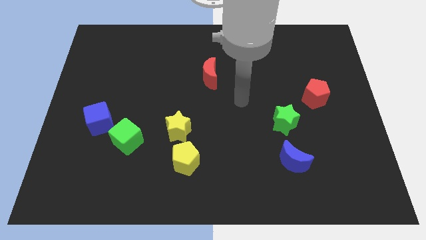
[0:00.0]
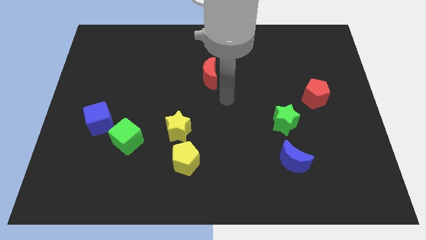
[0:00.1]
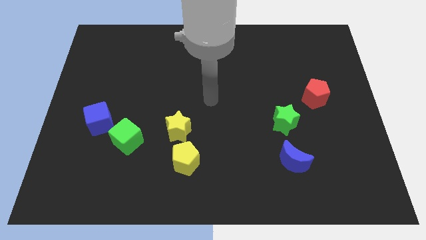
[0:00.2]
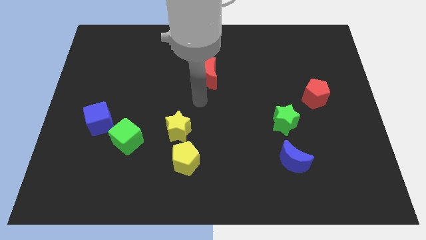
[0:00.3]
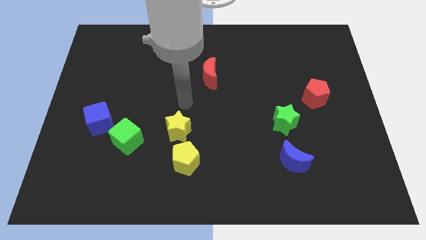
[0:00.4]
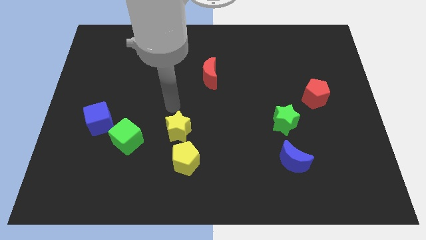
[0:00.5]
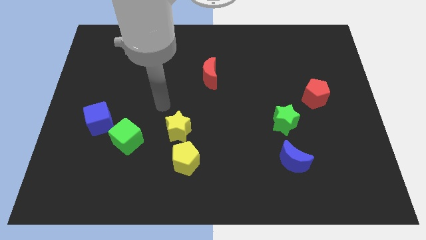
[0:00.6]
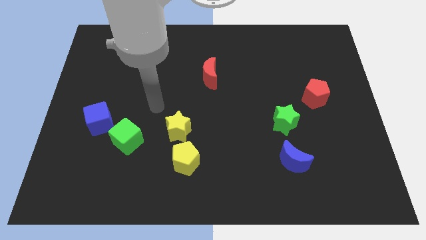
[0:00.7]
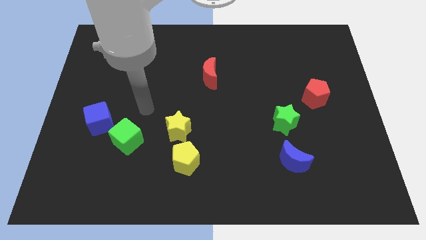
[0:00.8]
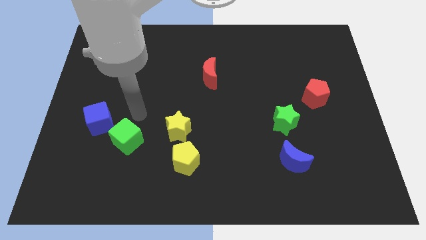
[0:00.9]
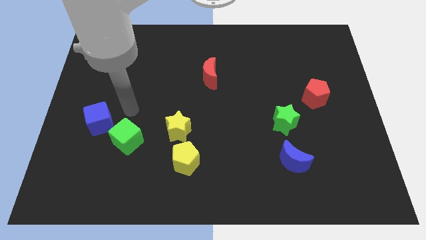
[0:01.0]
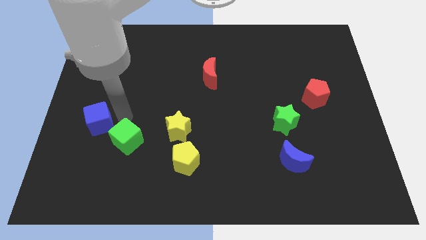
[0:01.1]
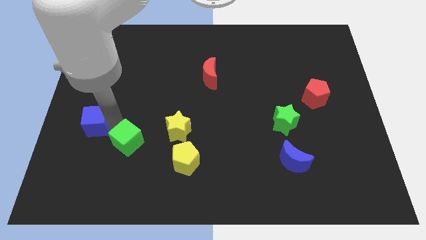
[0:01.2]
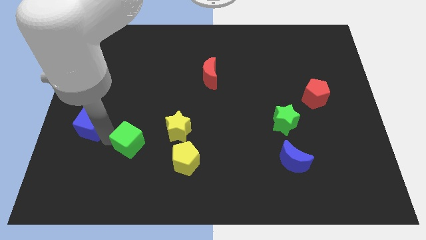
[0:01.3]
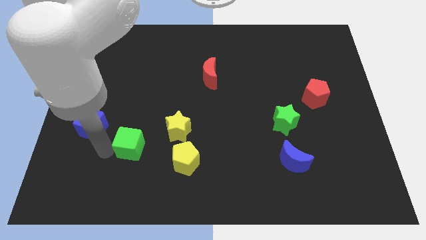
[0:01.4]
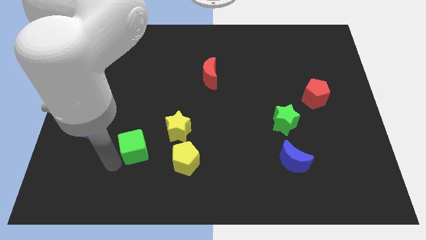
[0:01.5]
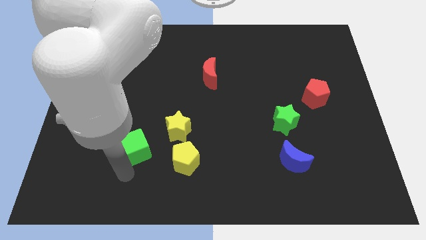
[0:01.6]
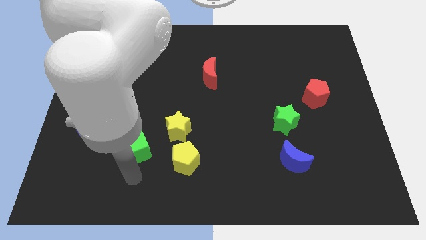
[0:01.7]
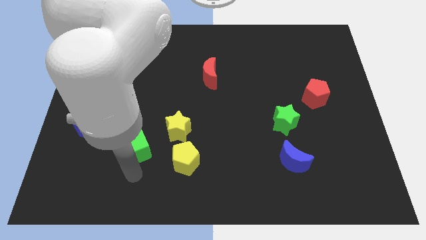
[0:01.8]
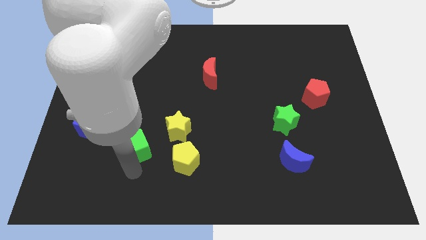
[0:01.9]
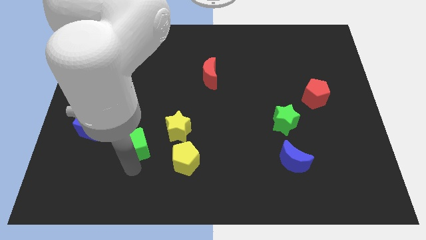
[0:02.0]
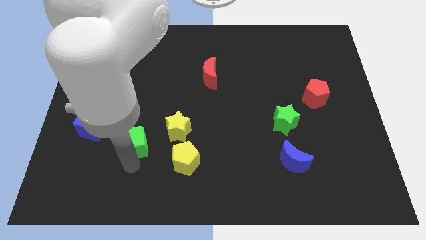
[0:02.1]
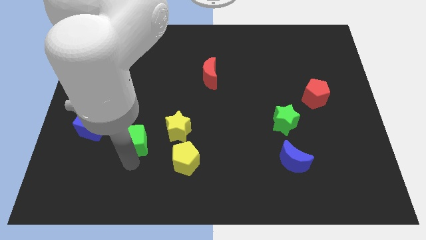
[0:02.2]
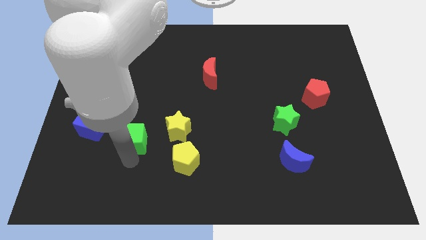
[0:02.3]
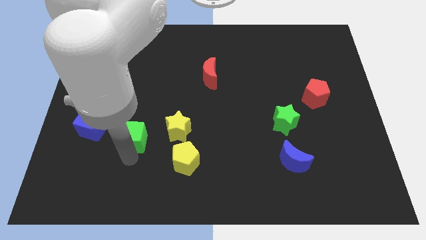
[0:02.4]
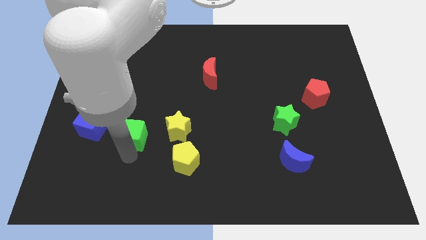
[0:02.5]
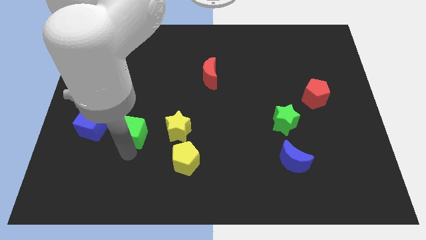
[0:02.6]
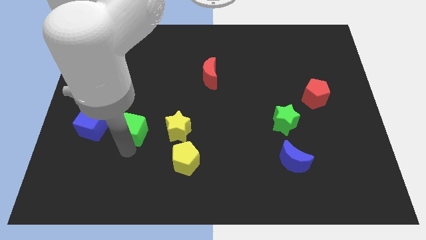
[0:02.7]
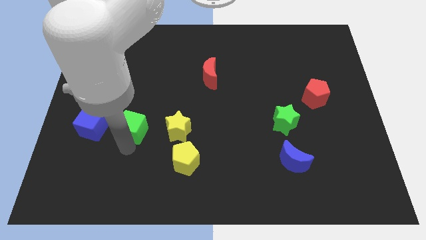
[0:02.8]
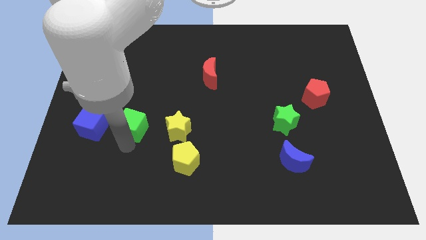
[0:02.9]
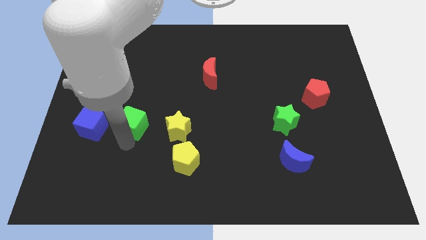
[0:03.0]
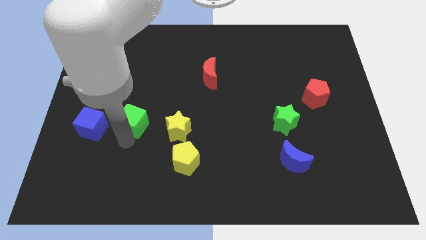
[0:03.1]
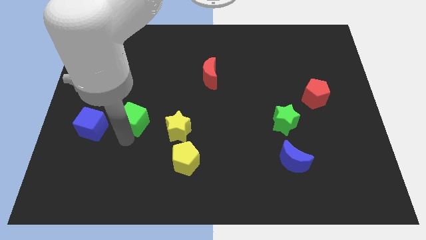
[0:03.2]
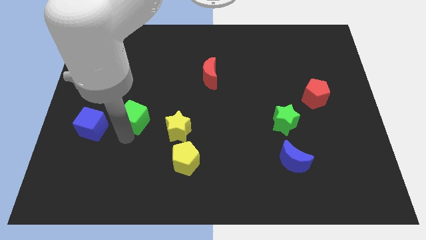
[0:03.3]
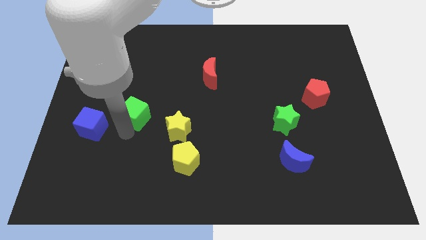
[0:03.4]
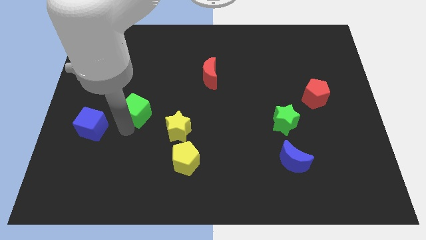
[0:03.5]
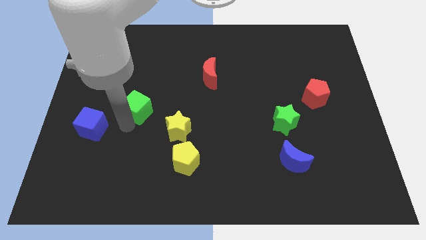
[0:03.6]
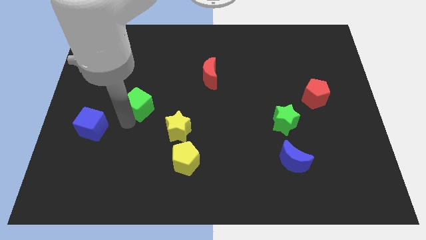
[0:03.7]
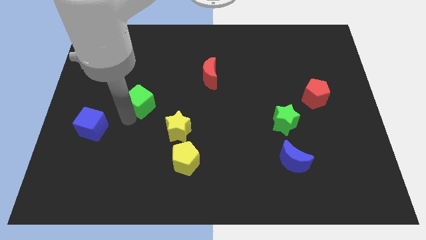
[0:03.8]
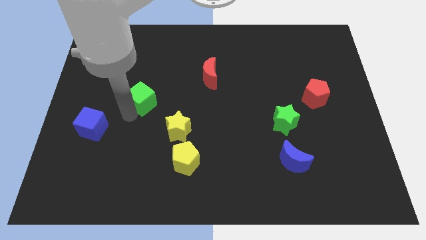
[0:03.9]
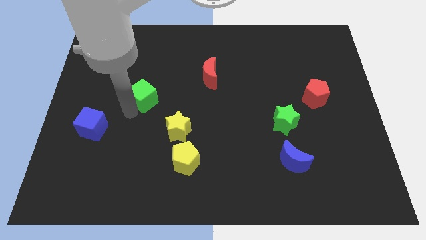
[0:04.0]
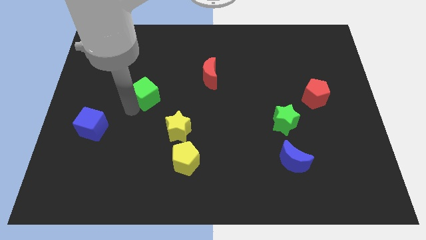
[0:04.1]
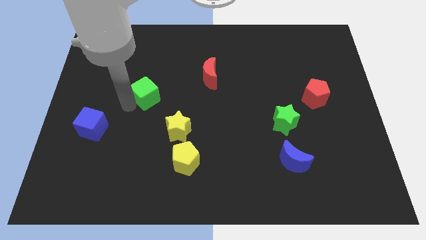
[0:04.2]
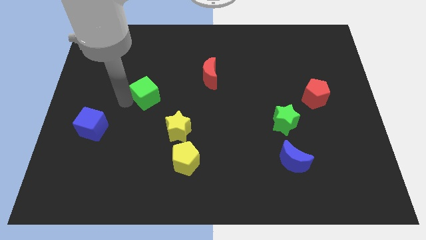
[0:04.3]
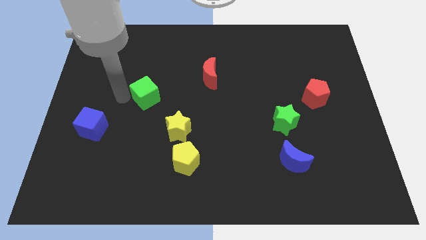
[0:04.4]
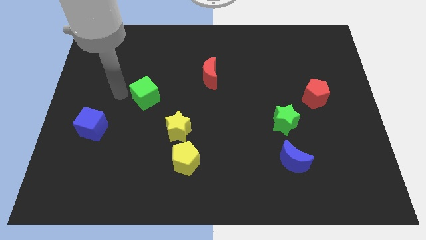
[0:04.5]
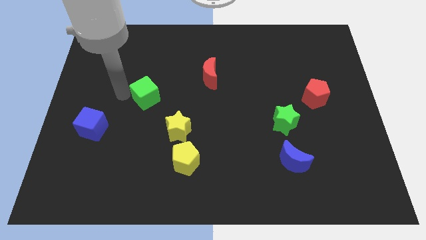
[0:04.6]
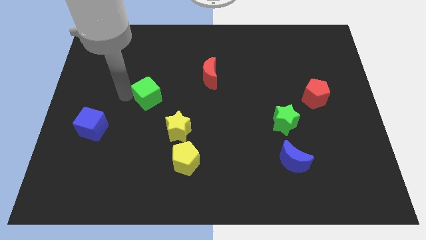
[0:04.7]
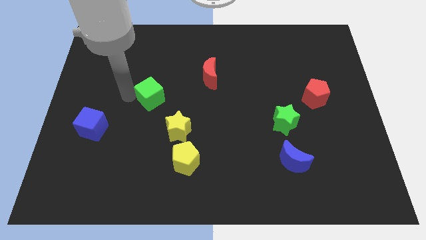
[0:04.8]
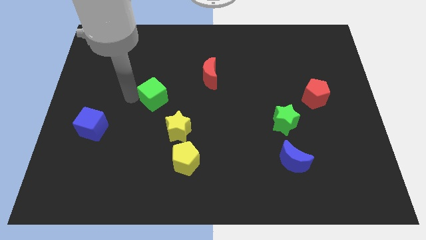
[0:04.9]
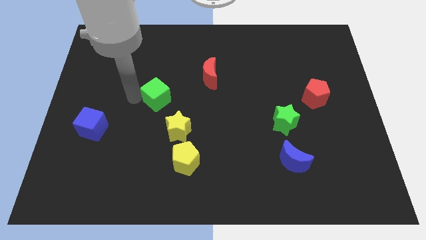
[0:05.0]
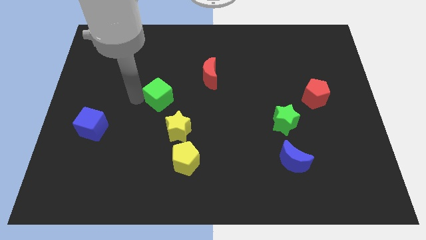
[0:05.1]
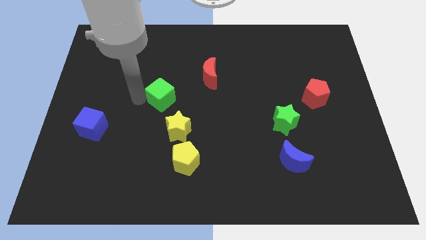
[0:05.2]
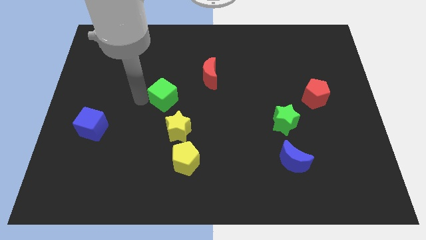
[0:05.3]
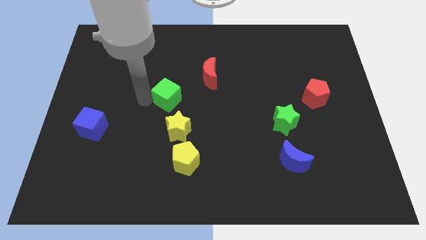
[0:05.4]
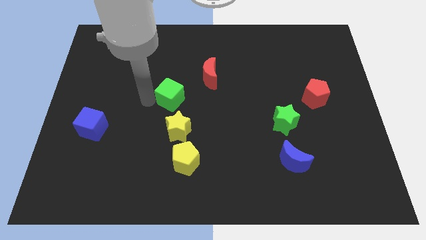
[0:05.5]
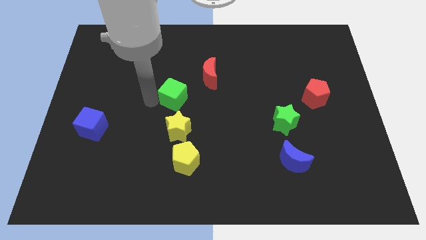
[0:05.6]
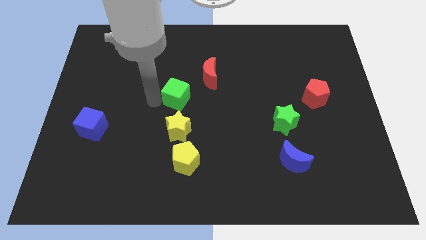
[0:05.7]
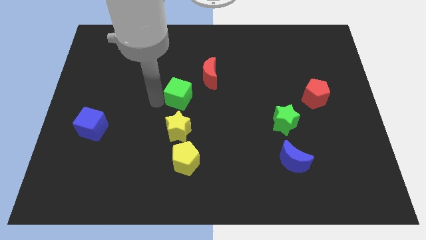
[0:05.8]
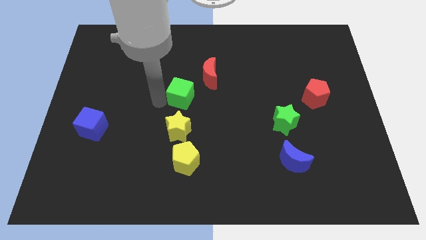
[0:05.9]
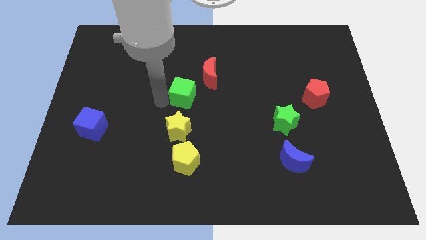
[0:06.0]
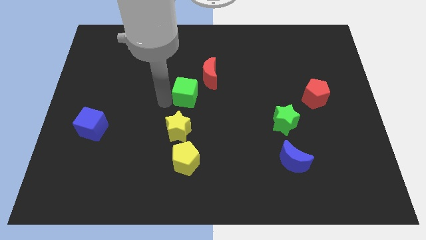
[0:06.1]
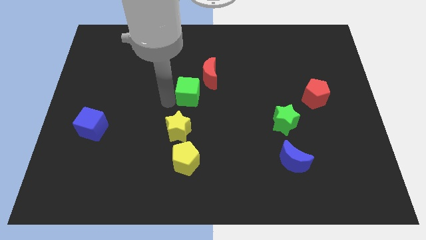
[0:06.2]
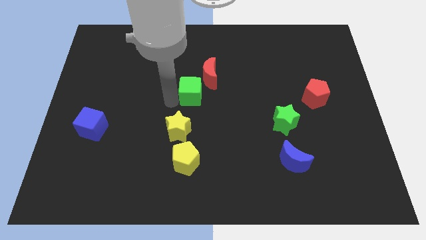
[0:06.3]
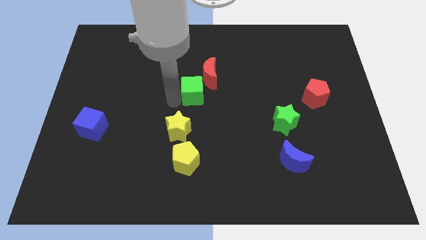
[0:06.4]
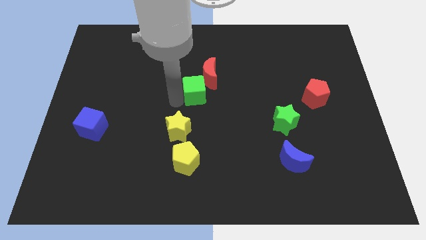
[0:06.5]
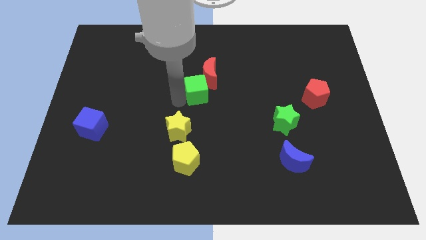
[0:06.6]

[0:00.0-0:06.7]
push the green cube up and to the right

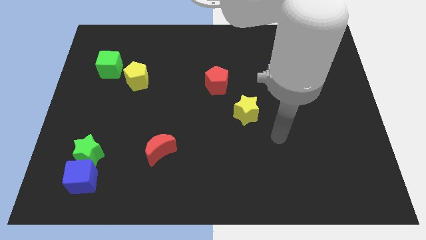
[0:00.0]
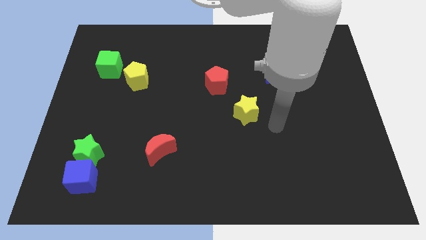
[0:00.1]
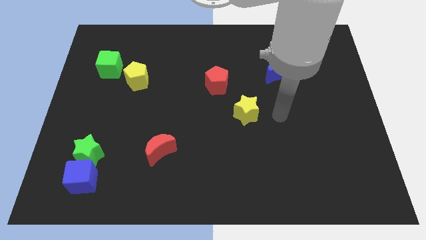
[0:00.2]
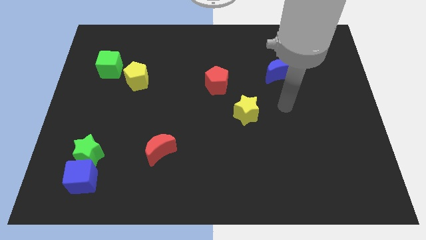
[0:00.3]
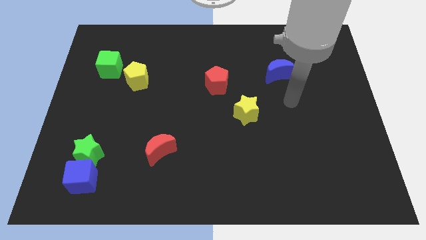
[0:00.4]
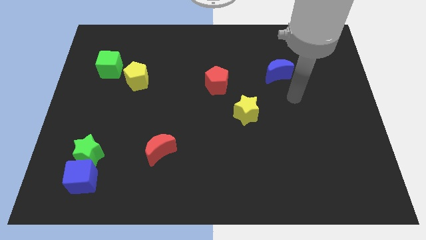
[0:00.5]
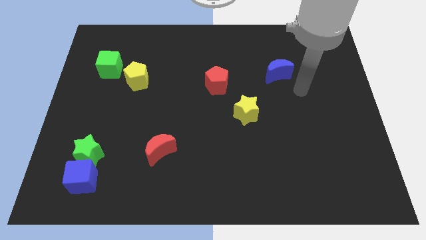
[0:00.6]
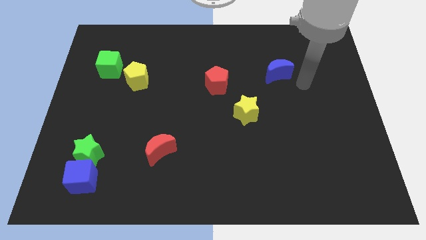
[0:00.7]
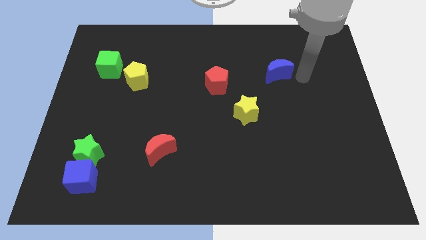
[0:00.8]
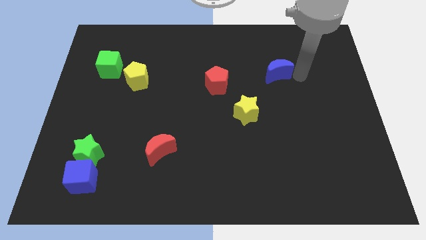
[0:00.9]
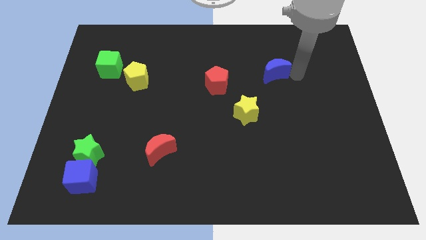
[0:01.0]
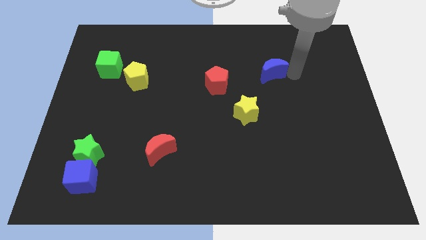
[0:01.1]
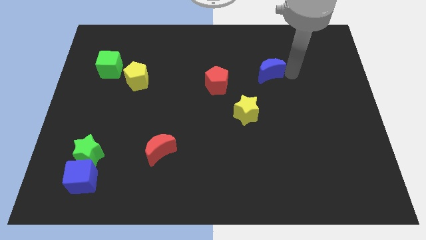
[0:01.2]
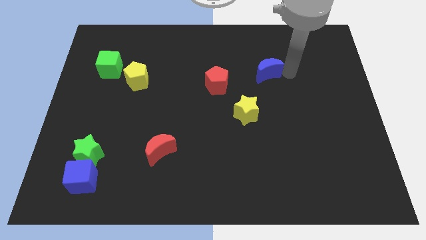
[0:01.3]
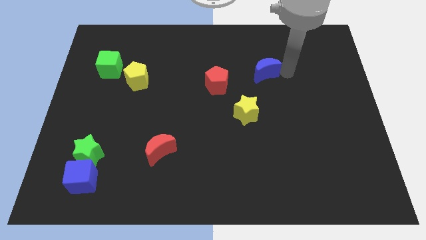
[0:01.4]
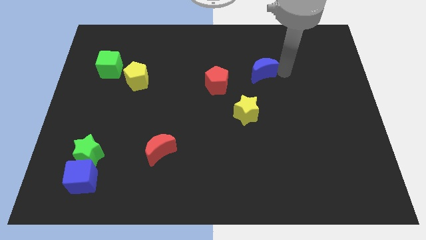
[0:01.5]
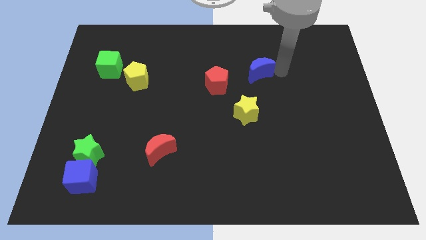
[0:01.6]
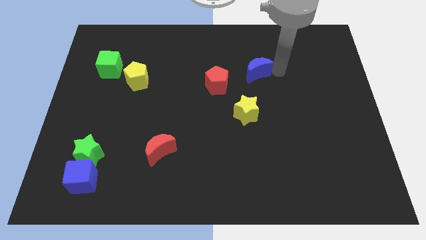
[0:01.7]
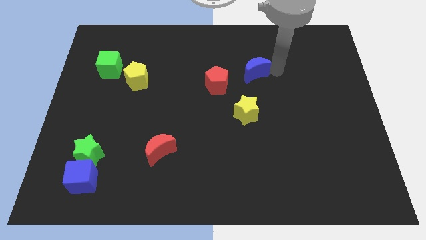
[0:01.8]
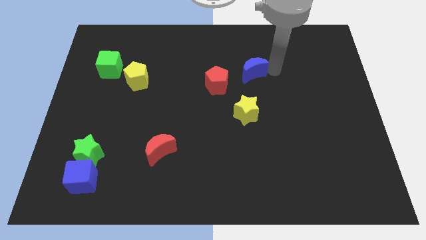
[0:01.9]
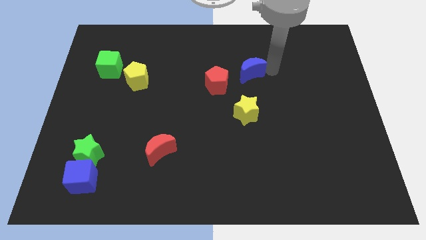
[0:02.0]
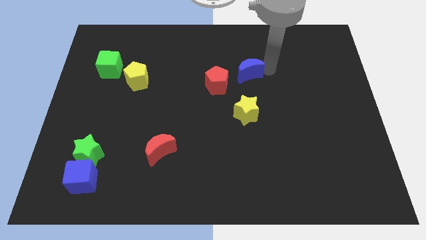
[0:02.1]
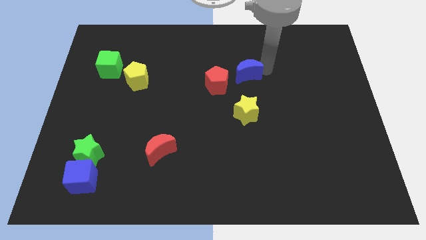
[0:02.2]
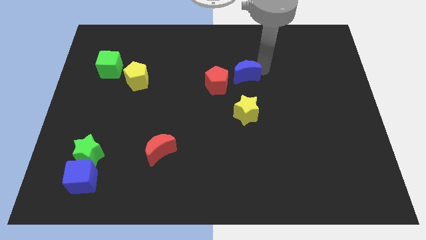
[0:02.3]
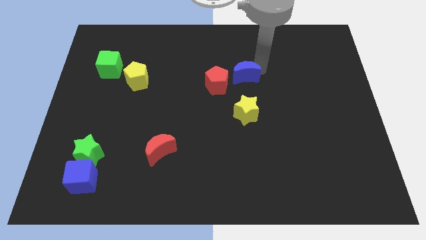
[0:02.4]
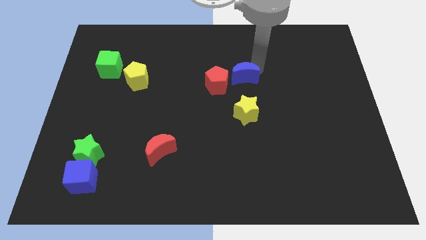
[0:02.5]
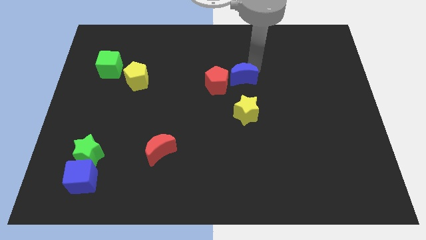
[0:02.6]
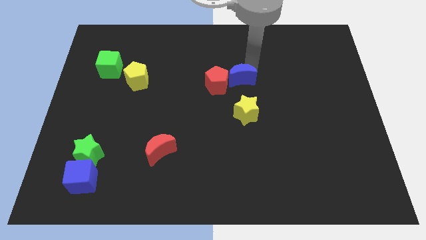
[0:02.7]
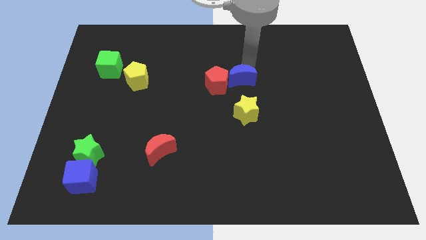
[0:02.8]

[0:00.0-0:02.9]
move the blue moon downwards and to the left diagonally a little
